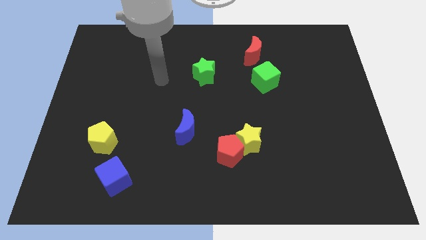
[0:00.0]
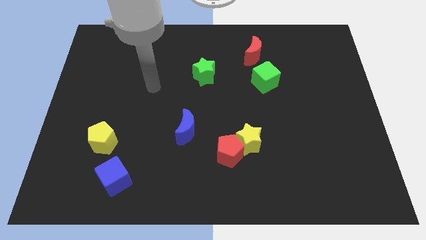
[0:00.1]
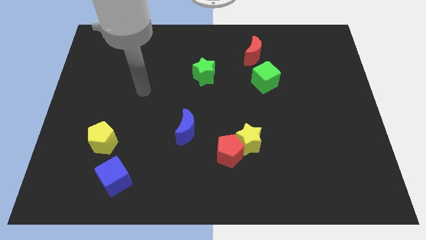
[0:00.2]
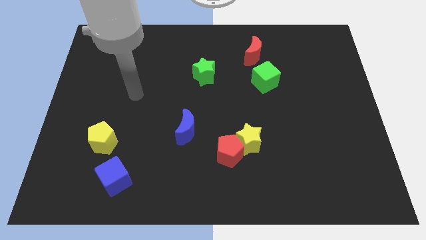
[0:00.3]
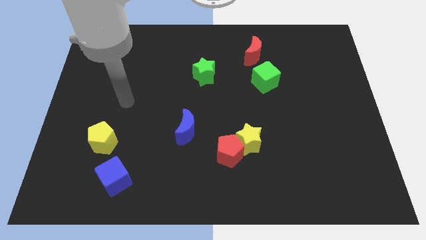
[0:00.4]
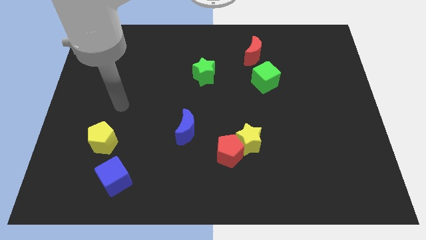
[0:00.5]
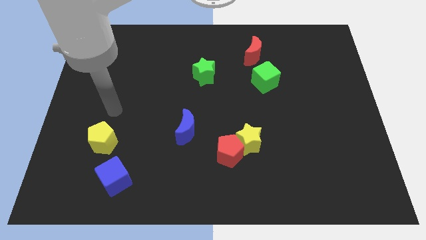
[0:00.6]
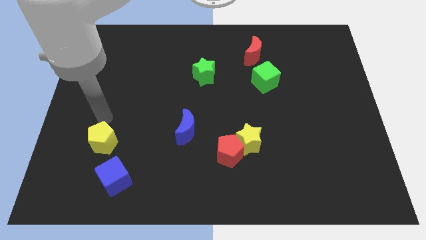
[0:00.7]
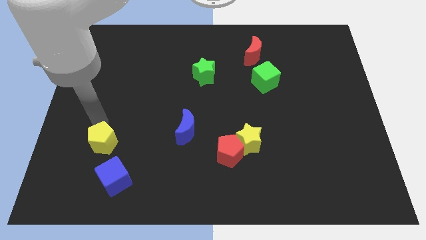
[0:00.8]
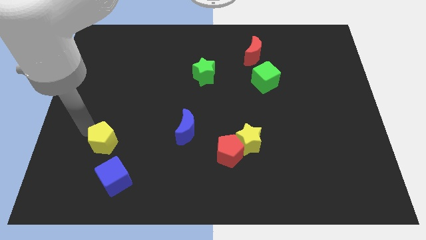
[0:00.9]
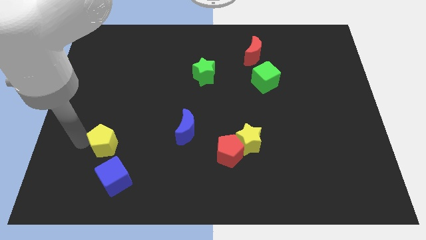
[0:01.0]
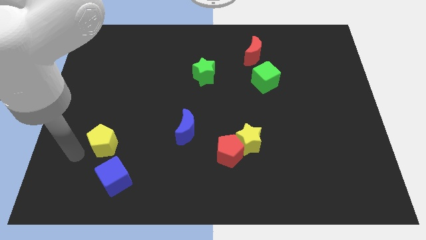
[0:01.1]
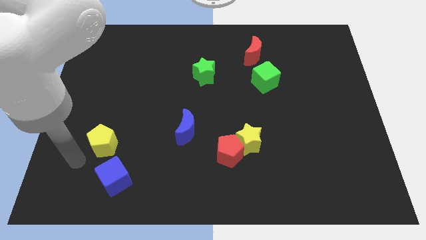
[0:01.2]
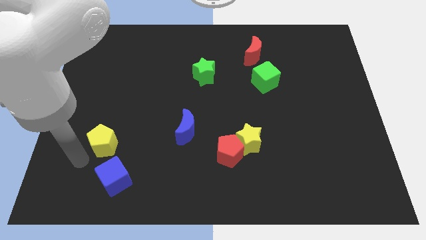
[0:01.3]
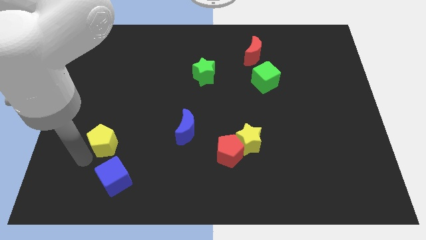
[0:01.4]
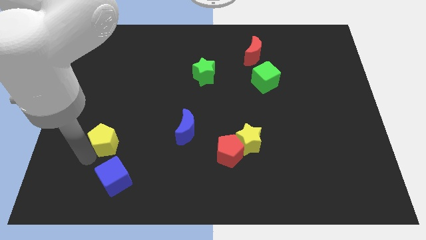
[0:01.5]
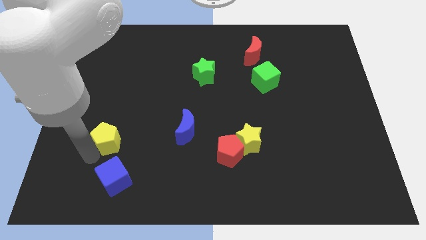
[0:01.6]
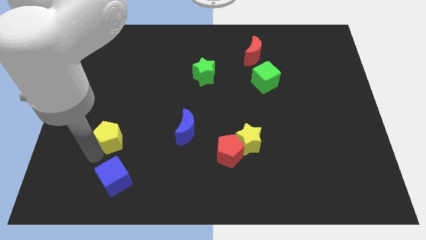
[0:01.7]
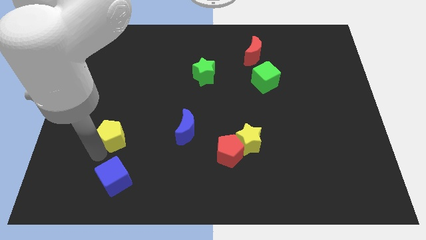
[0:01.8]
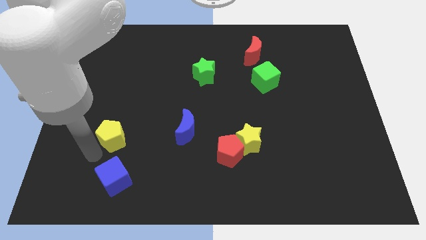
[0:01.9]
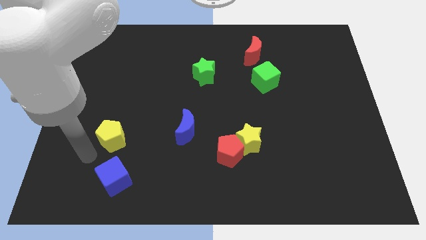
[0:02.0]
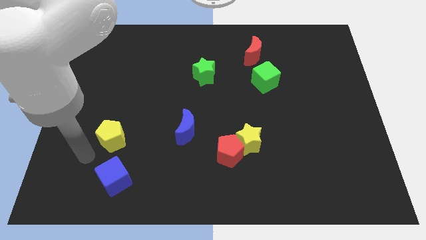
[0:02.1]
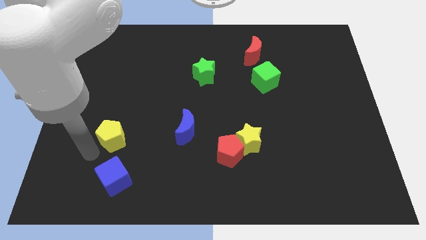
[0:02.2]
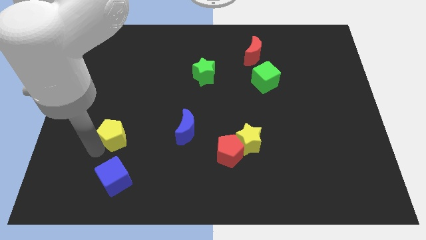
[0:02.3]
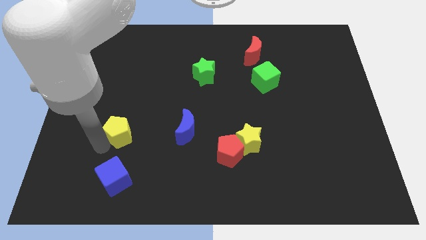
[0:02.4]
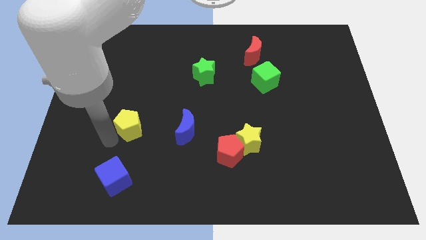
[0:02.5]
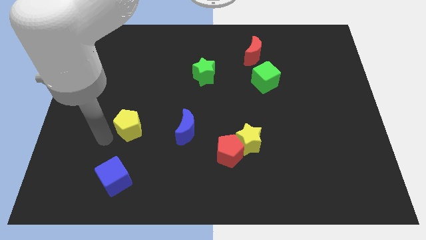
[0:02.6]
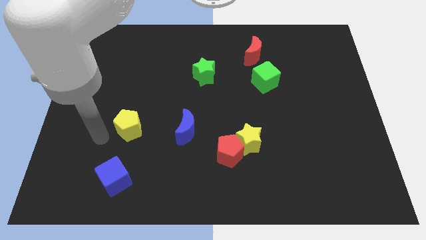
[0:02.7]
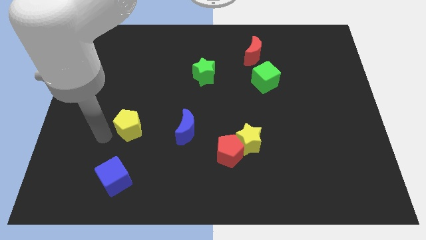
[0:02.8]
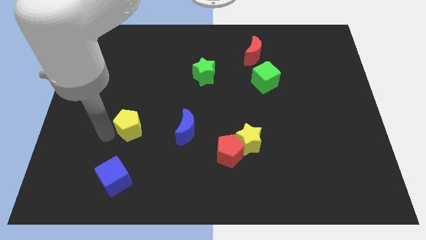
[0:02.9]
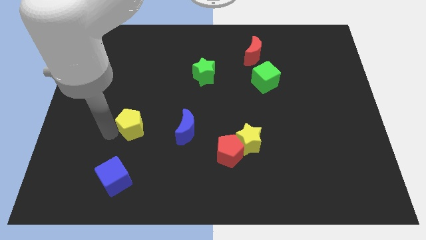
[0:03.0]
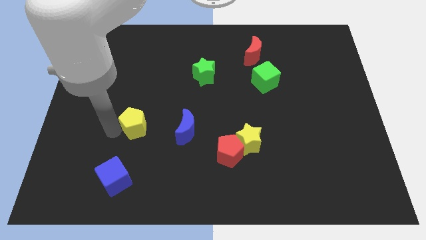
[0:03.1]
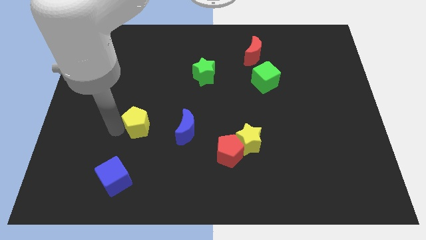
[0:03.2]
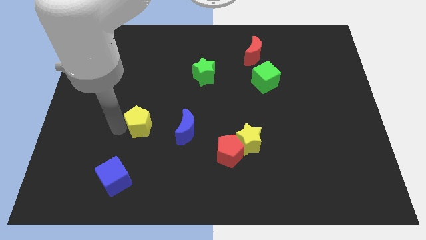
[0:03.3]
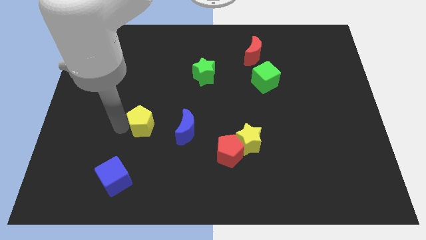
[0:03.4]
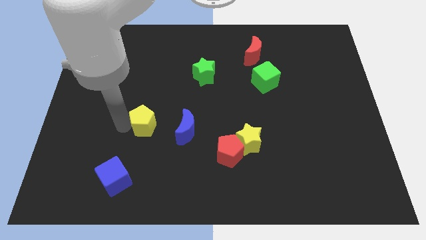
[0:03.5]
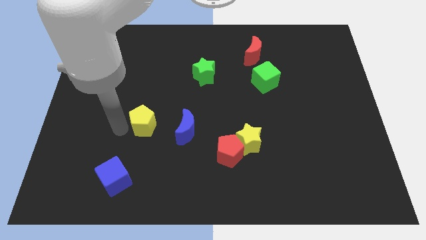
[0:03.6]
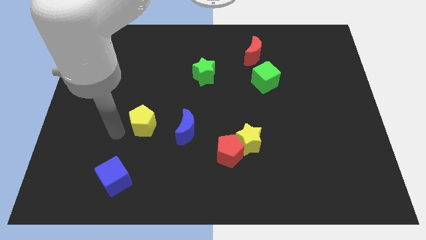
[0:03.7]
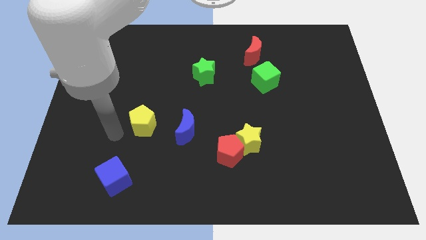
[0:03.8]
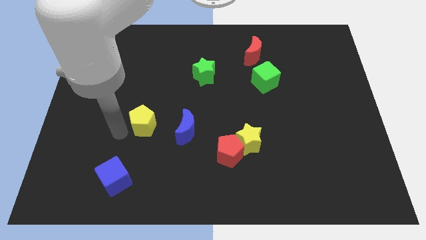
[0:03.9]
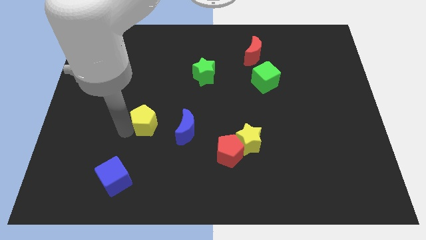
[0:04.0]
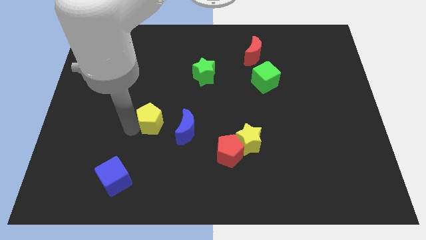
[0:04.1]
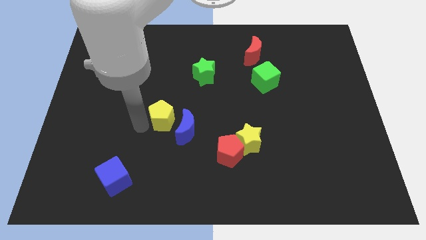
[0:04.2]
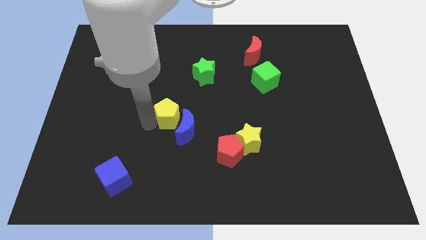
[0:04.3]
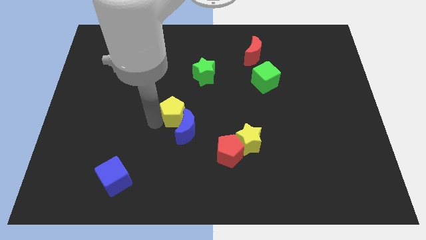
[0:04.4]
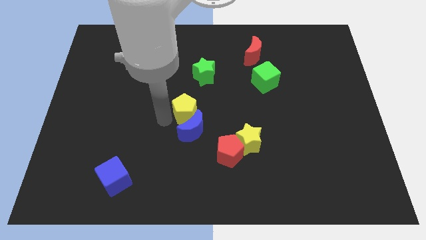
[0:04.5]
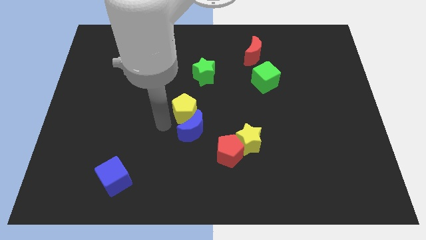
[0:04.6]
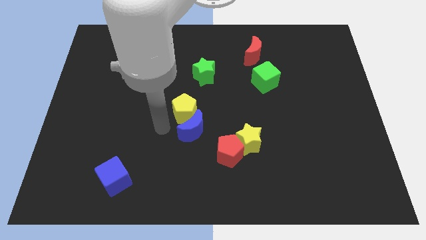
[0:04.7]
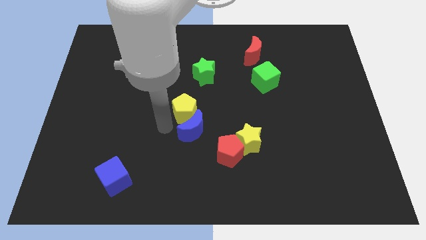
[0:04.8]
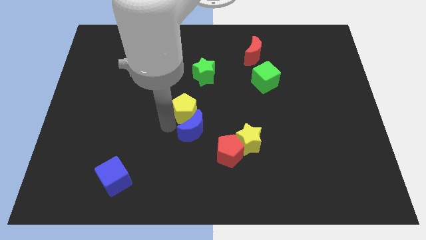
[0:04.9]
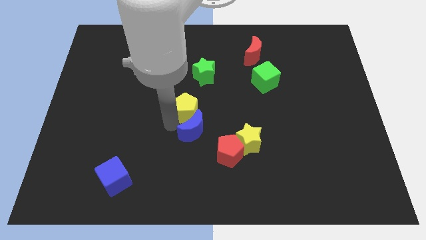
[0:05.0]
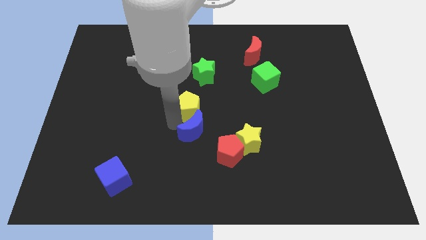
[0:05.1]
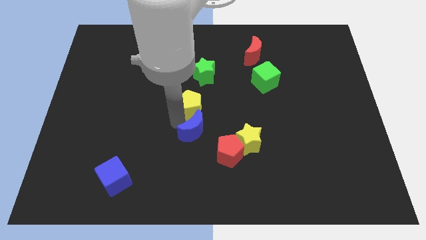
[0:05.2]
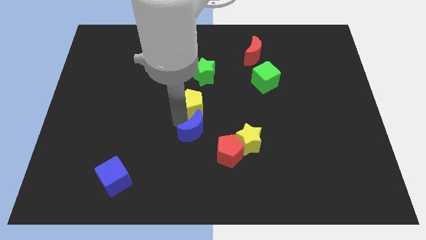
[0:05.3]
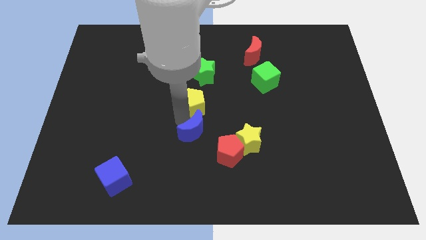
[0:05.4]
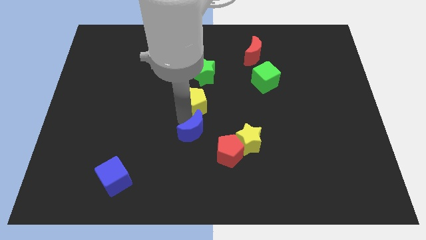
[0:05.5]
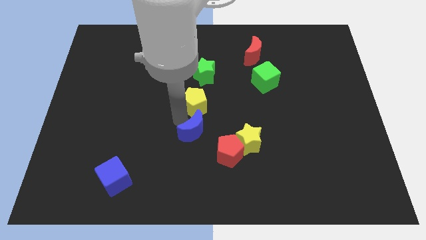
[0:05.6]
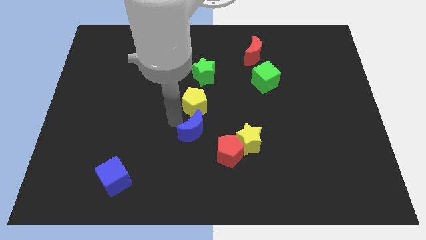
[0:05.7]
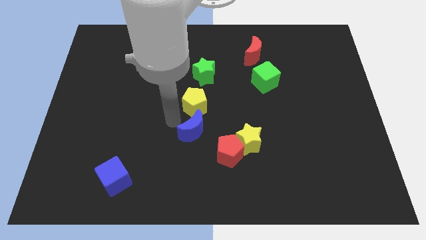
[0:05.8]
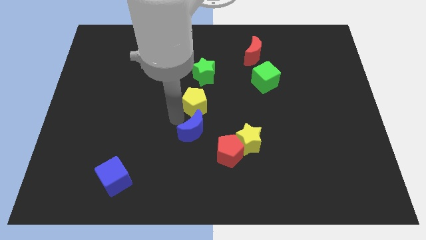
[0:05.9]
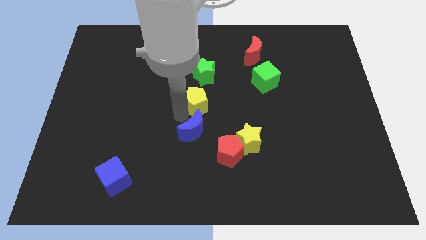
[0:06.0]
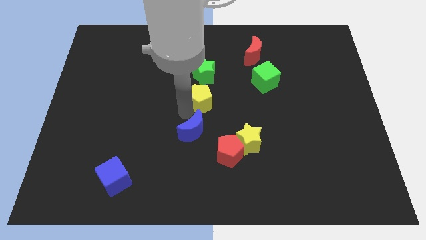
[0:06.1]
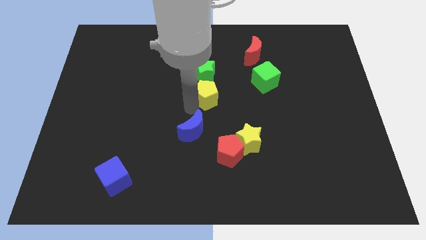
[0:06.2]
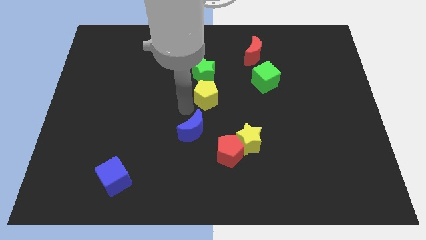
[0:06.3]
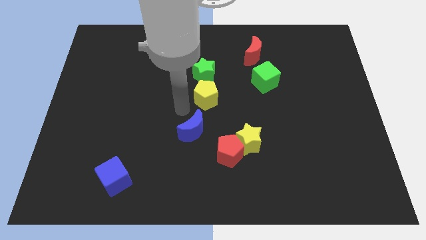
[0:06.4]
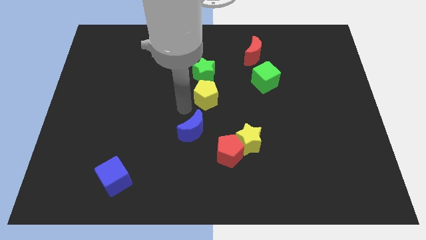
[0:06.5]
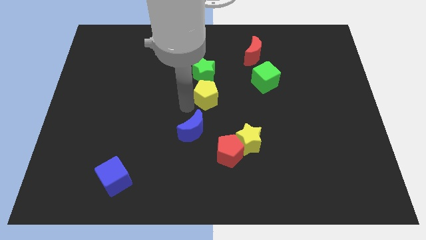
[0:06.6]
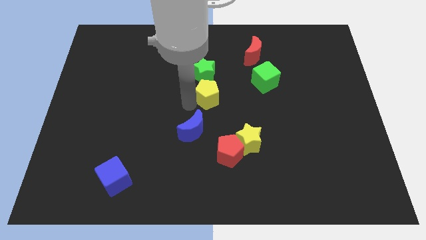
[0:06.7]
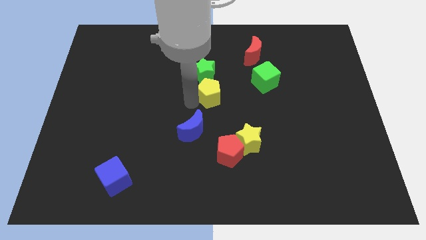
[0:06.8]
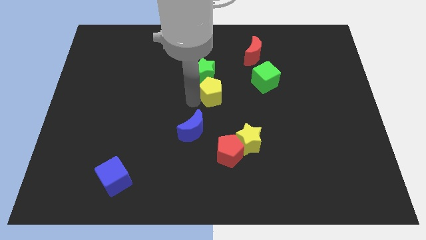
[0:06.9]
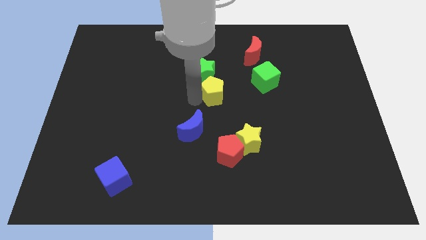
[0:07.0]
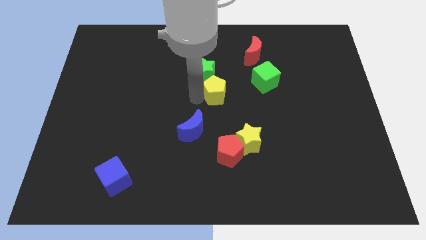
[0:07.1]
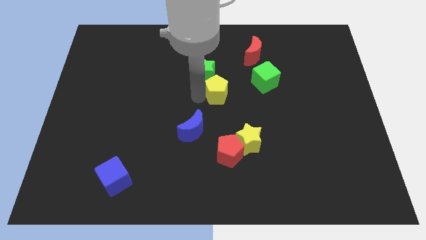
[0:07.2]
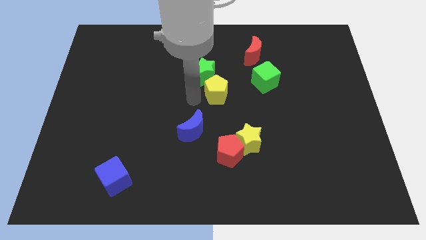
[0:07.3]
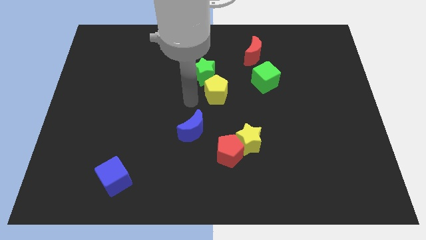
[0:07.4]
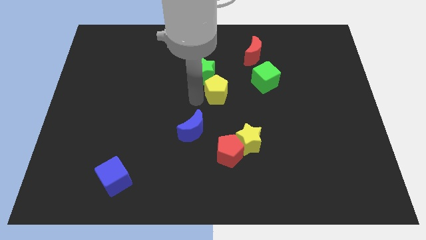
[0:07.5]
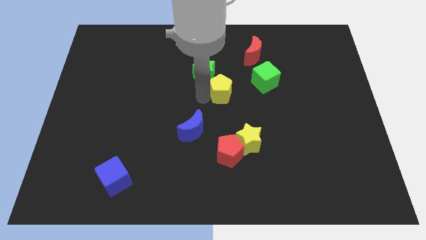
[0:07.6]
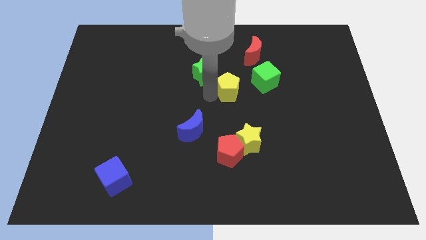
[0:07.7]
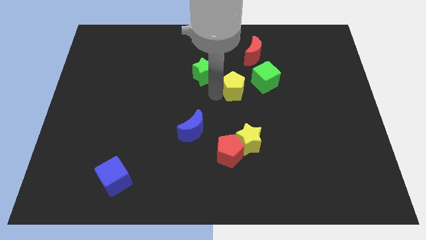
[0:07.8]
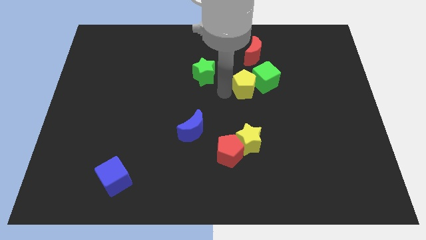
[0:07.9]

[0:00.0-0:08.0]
move the yellow pentagon close to the green cube
